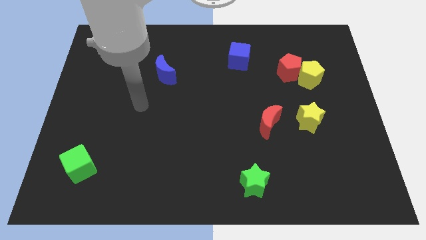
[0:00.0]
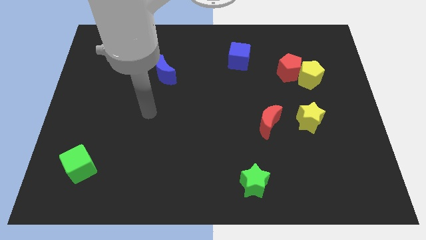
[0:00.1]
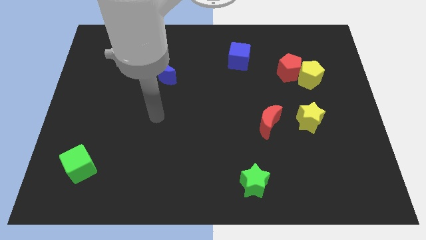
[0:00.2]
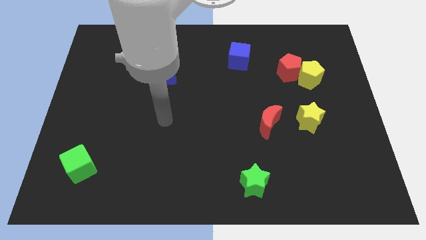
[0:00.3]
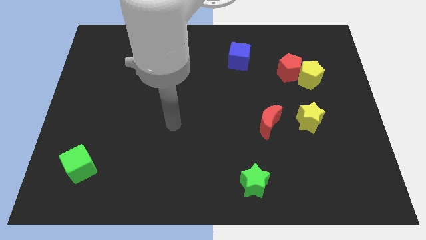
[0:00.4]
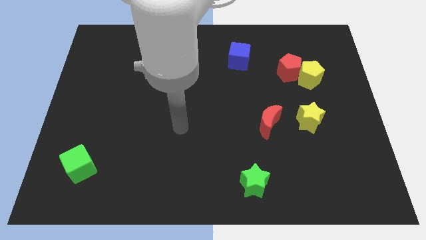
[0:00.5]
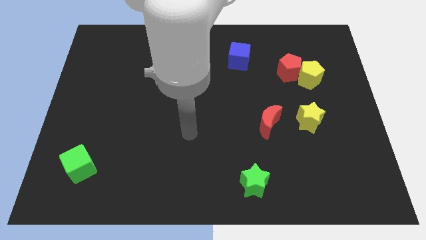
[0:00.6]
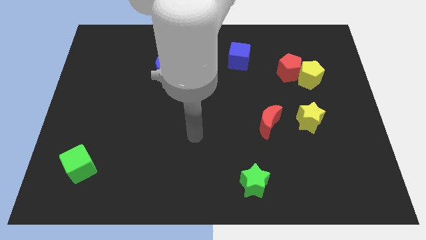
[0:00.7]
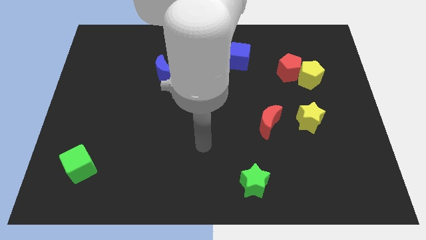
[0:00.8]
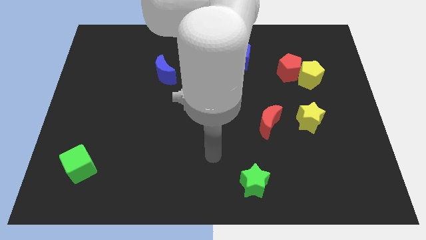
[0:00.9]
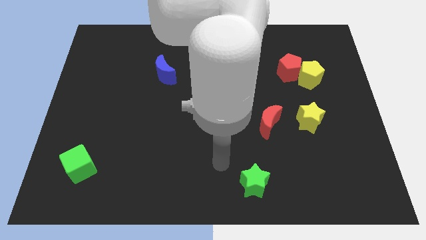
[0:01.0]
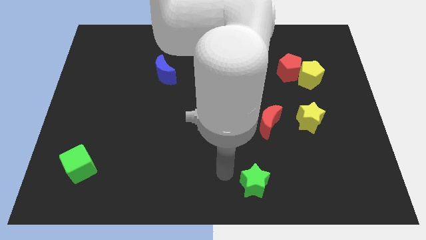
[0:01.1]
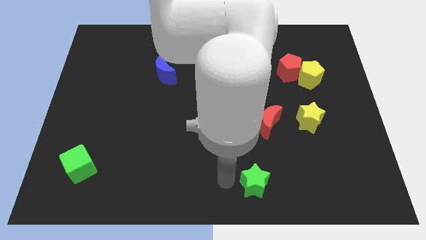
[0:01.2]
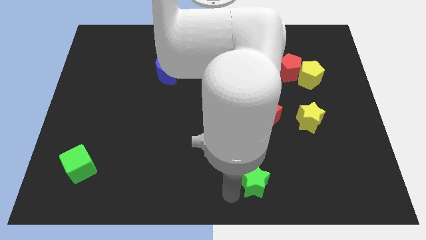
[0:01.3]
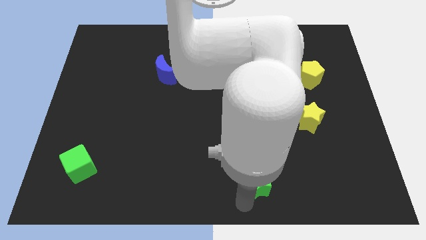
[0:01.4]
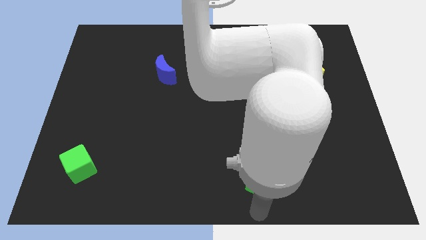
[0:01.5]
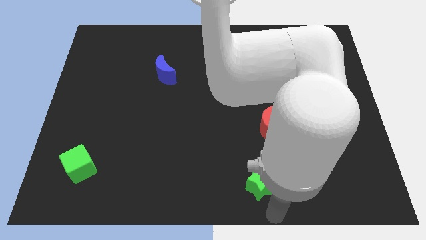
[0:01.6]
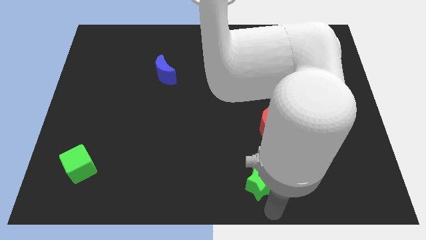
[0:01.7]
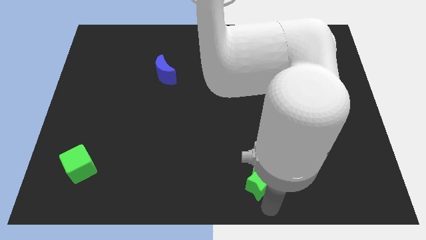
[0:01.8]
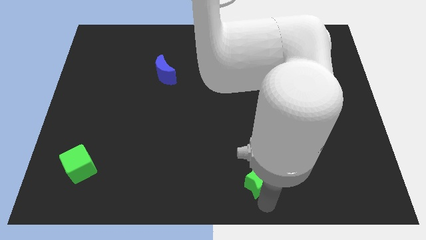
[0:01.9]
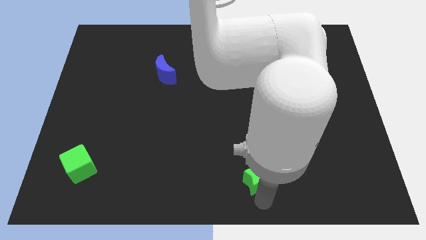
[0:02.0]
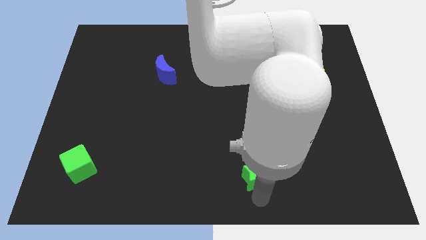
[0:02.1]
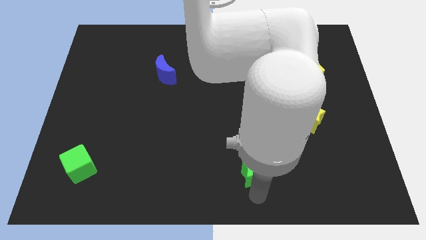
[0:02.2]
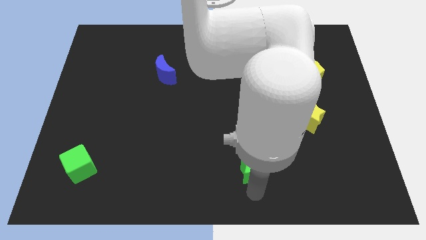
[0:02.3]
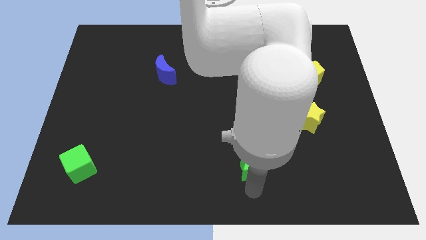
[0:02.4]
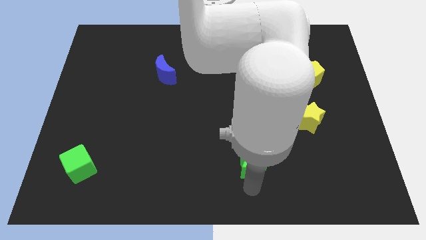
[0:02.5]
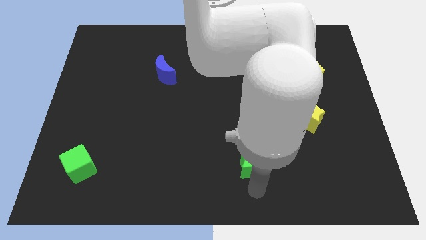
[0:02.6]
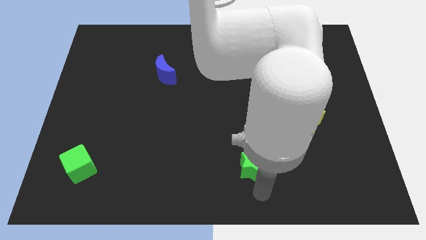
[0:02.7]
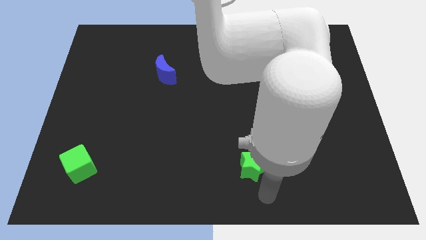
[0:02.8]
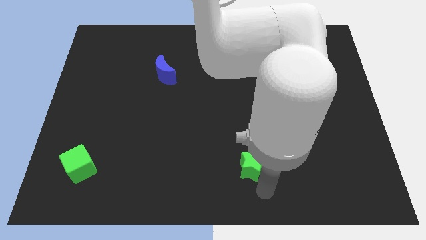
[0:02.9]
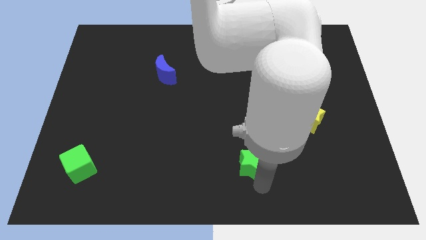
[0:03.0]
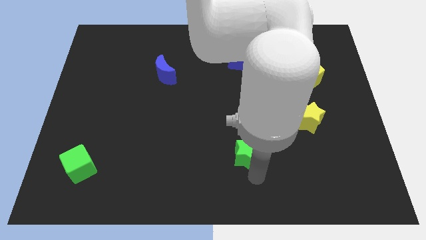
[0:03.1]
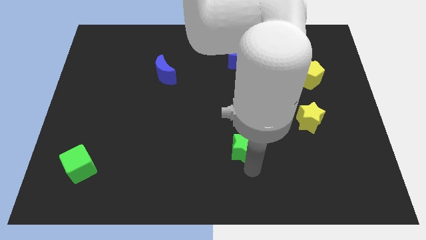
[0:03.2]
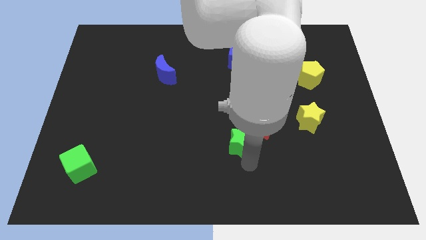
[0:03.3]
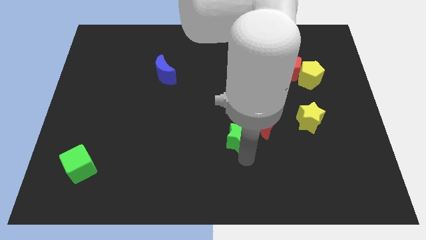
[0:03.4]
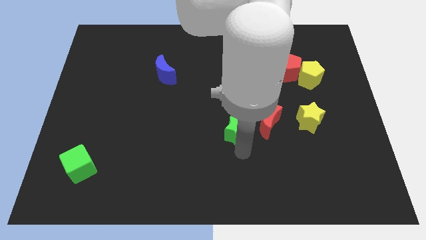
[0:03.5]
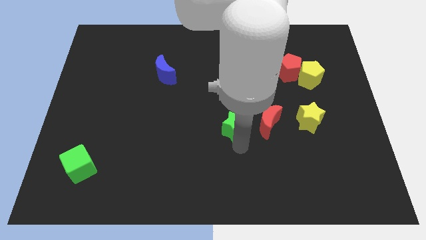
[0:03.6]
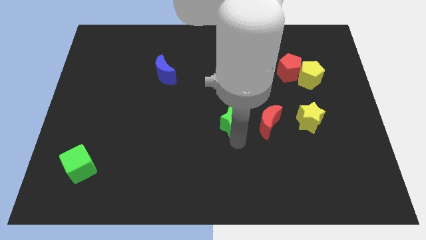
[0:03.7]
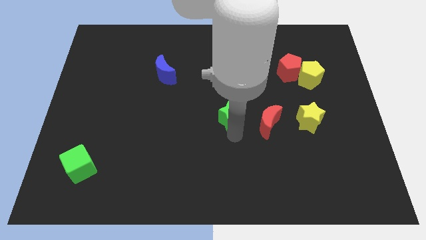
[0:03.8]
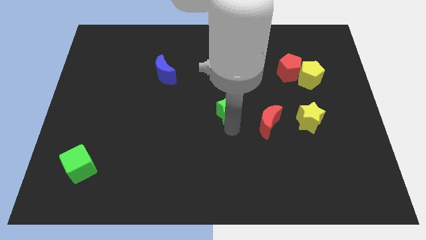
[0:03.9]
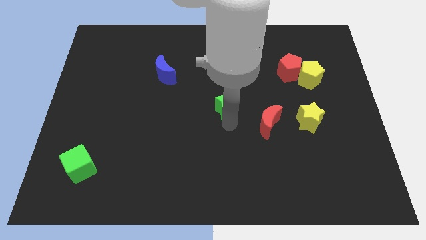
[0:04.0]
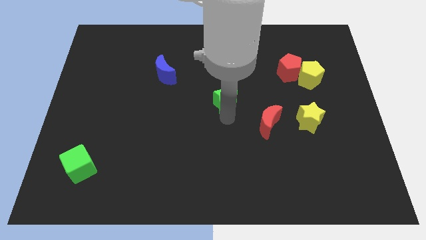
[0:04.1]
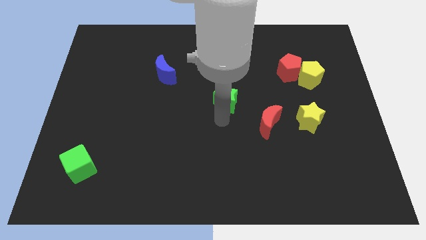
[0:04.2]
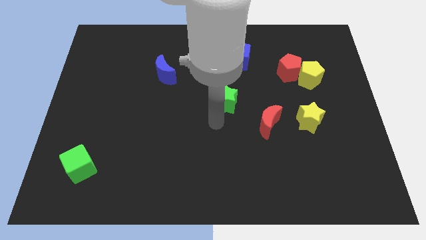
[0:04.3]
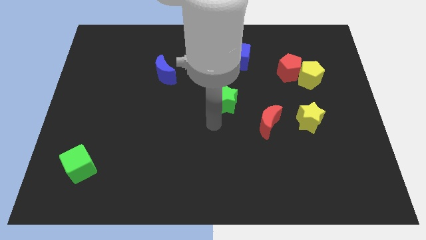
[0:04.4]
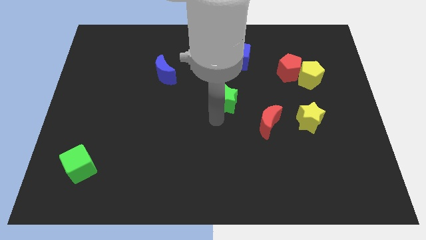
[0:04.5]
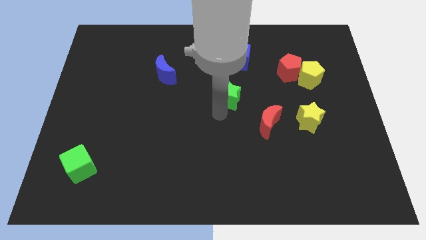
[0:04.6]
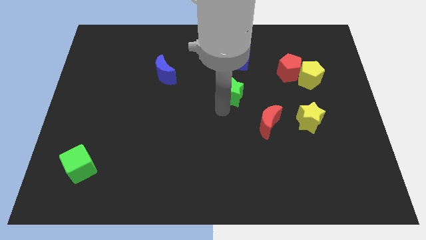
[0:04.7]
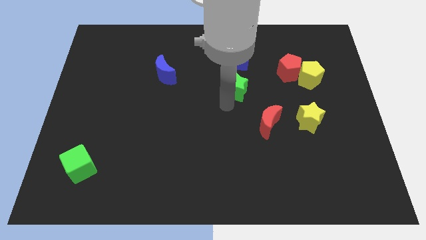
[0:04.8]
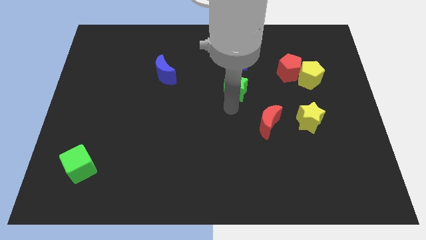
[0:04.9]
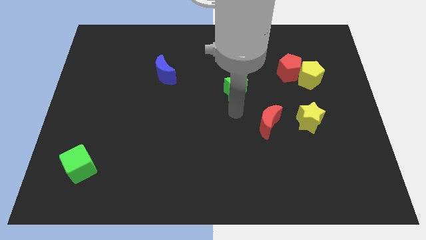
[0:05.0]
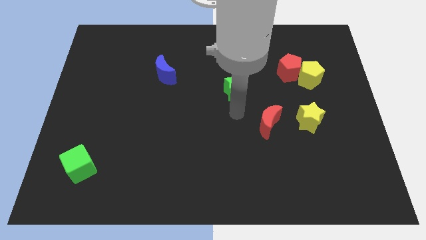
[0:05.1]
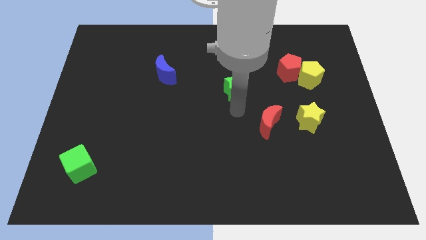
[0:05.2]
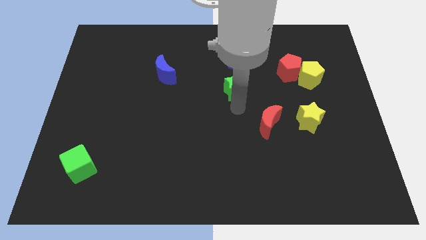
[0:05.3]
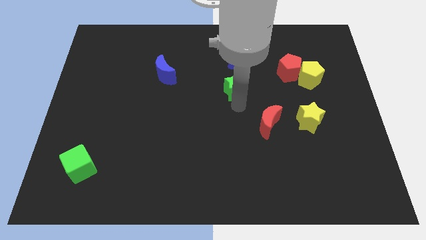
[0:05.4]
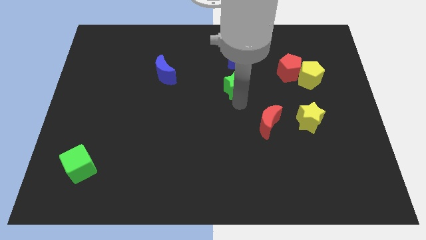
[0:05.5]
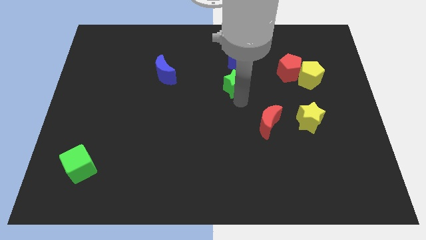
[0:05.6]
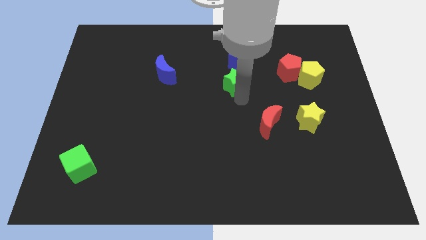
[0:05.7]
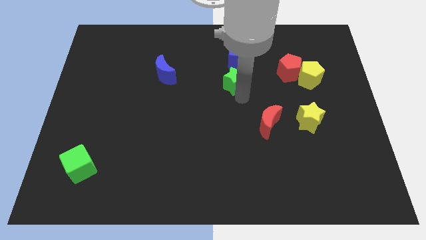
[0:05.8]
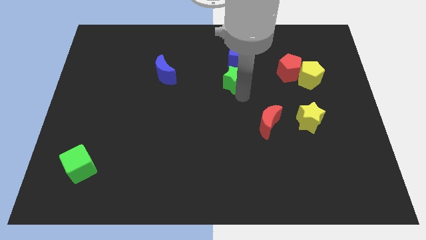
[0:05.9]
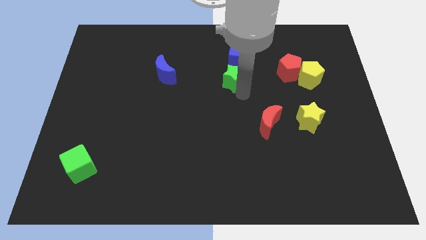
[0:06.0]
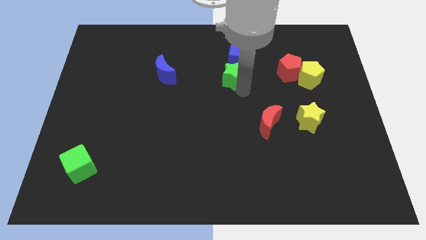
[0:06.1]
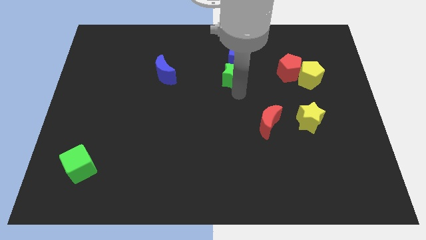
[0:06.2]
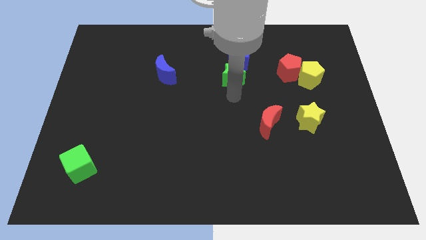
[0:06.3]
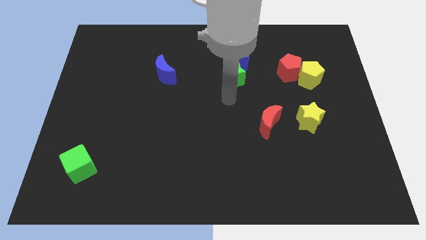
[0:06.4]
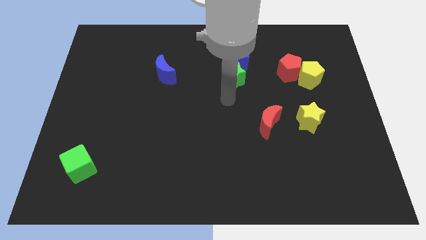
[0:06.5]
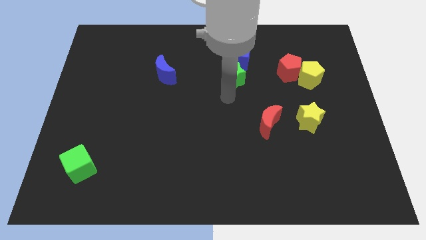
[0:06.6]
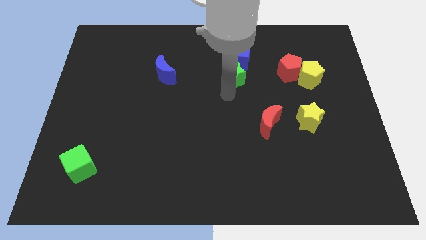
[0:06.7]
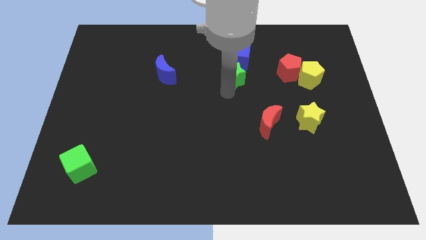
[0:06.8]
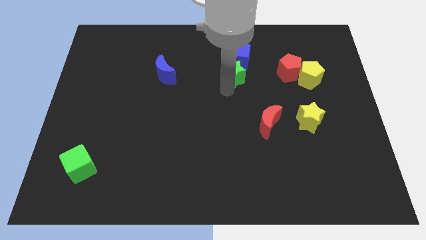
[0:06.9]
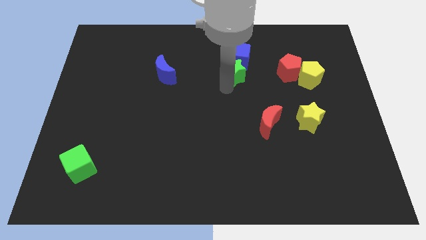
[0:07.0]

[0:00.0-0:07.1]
slide the green star close to the blue cube
